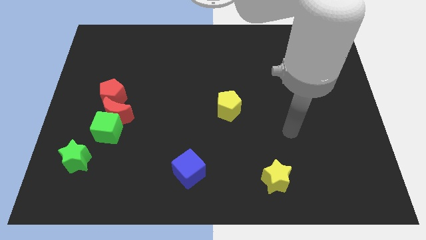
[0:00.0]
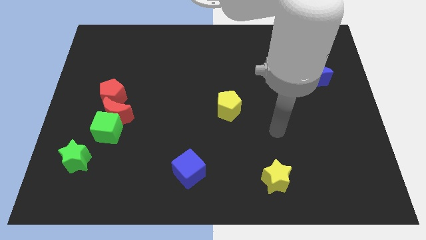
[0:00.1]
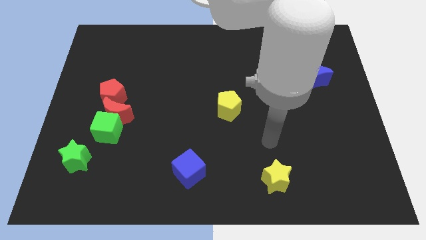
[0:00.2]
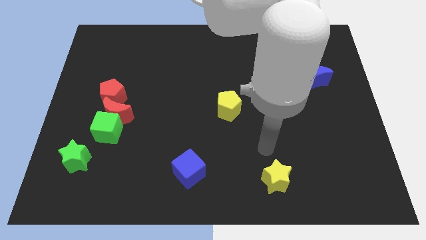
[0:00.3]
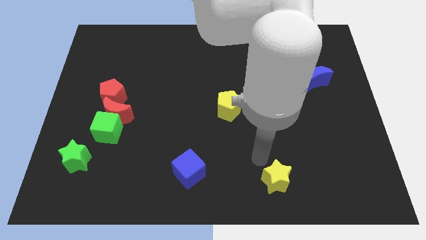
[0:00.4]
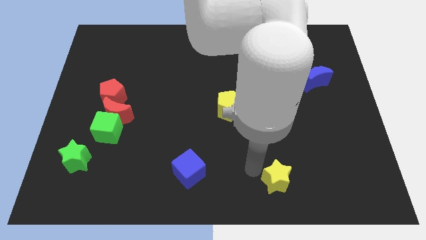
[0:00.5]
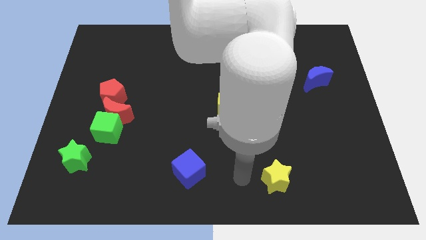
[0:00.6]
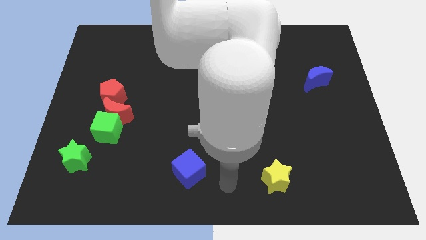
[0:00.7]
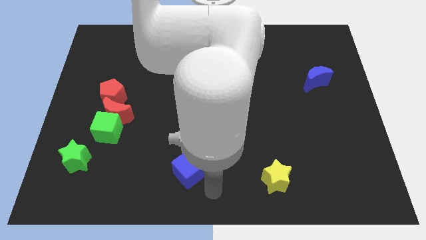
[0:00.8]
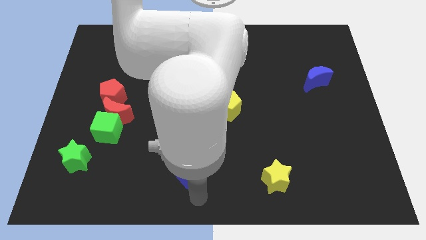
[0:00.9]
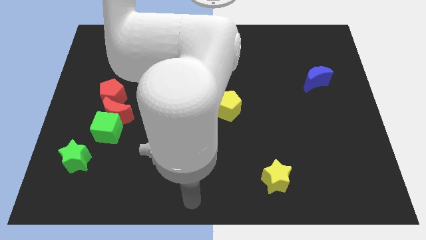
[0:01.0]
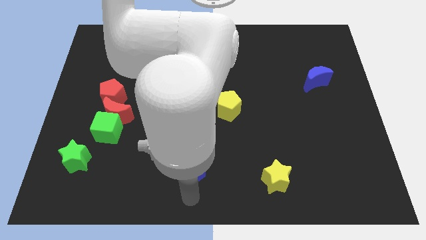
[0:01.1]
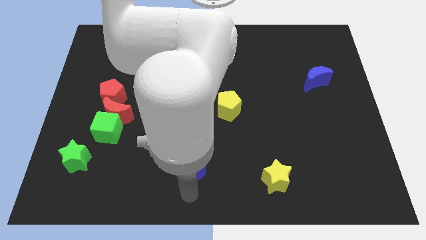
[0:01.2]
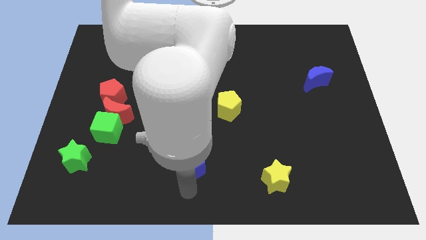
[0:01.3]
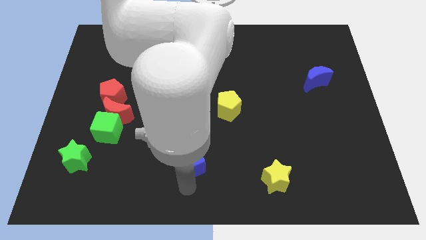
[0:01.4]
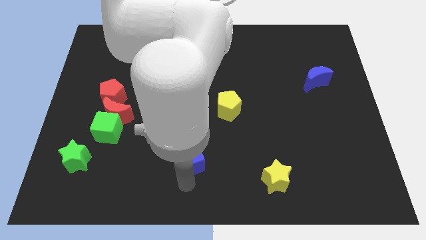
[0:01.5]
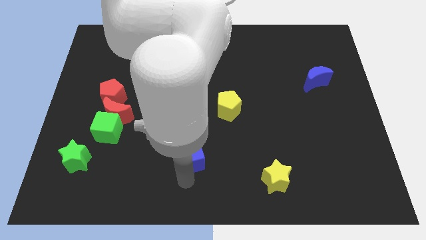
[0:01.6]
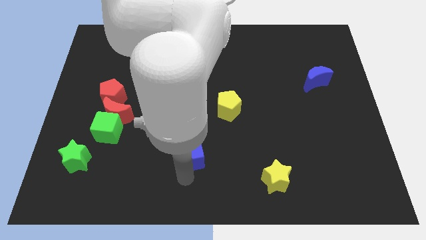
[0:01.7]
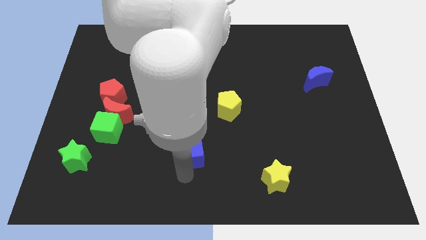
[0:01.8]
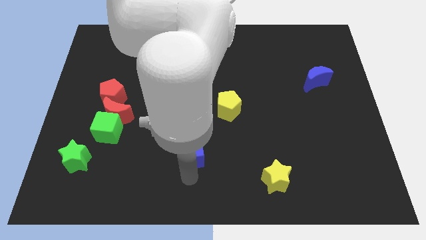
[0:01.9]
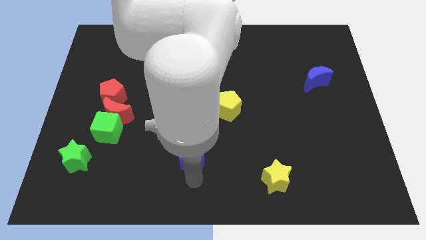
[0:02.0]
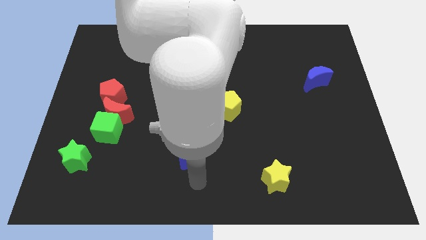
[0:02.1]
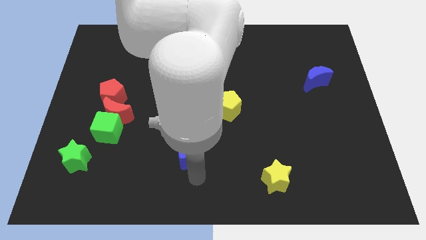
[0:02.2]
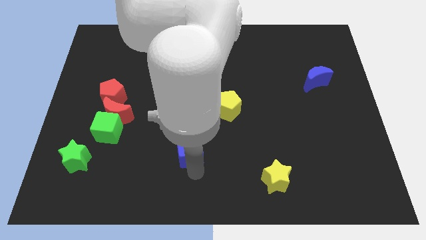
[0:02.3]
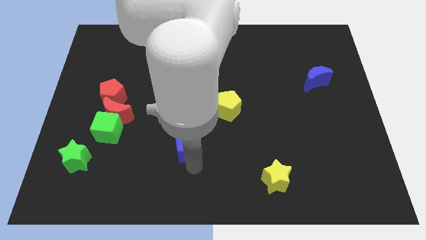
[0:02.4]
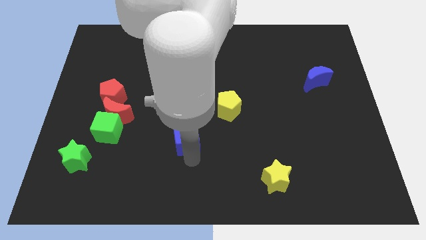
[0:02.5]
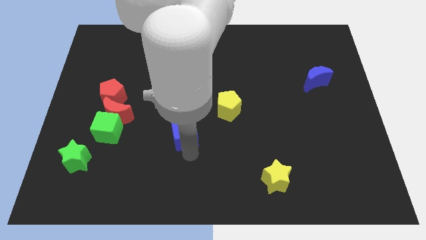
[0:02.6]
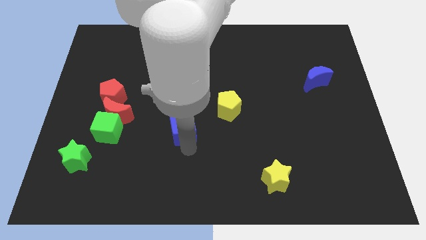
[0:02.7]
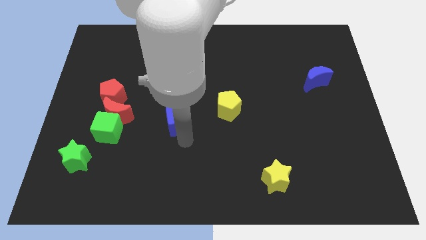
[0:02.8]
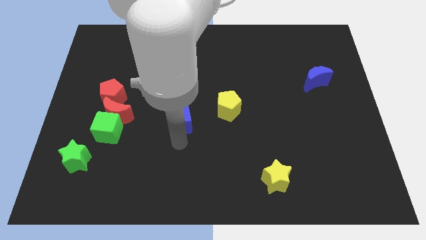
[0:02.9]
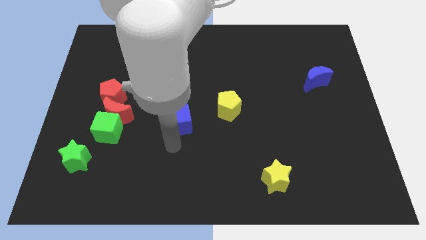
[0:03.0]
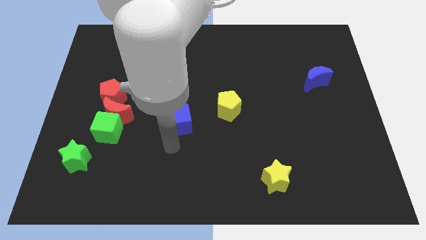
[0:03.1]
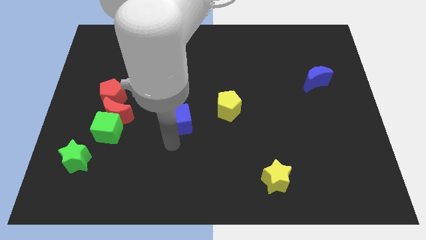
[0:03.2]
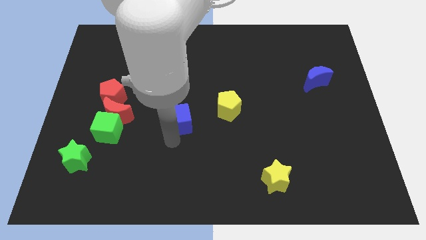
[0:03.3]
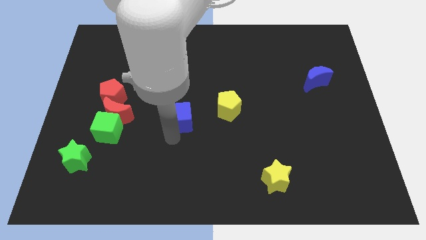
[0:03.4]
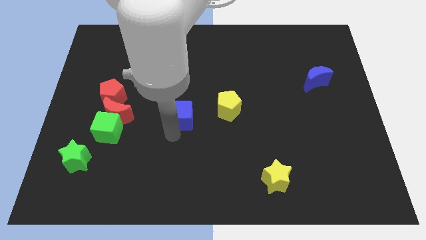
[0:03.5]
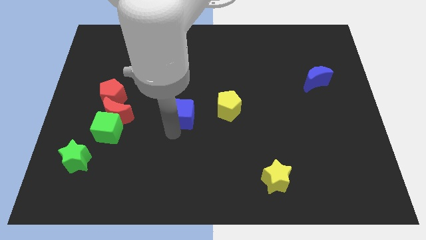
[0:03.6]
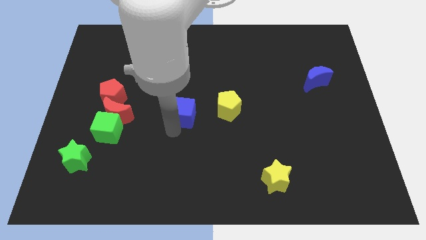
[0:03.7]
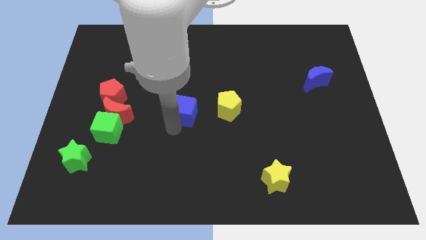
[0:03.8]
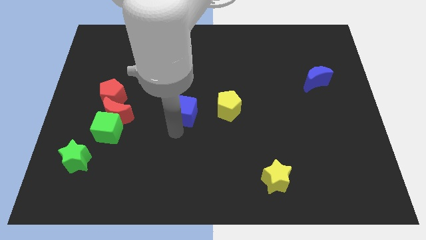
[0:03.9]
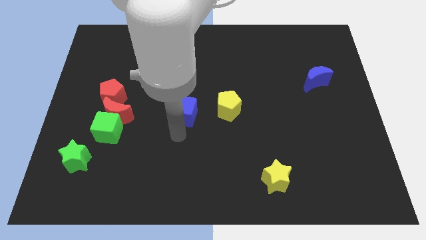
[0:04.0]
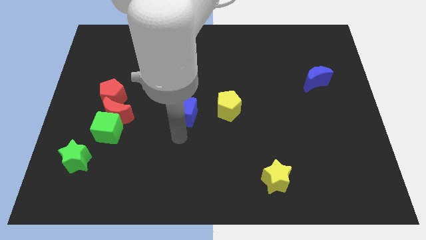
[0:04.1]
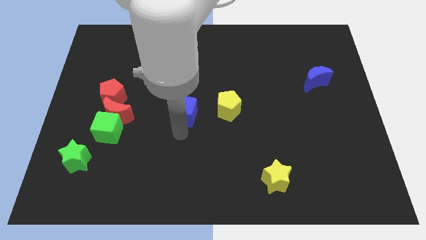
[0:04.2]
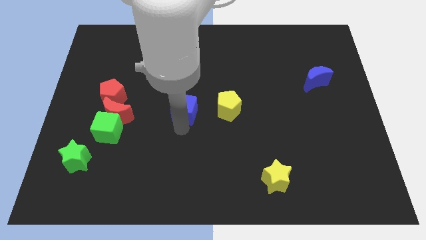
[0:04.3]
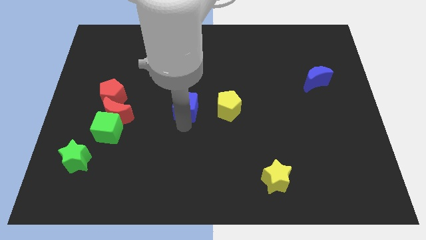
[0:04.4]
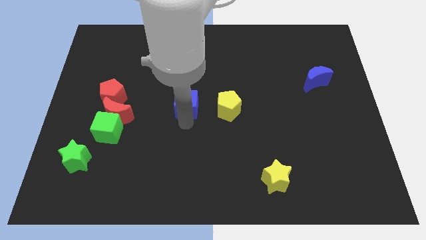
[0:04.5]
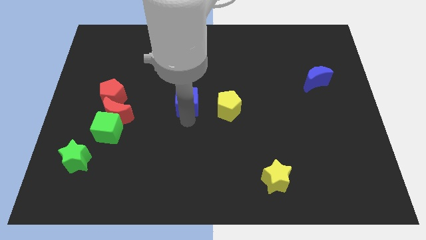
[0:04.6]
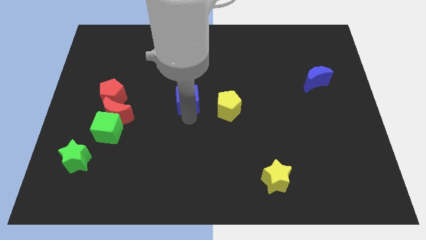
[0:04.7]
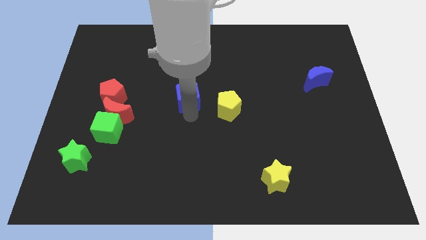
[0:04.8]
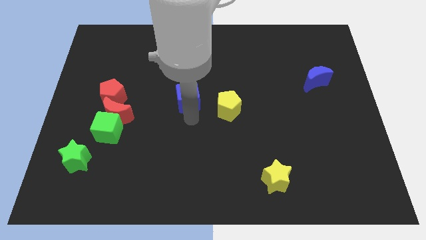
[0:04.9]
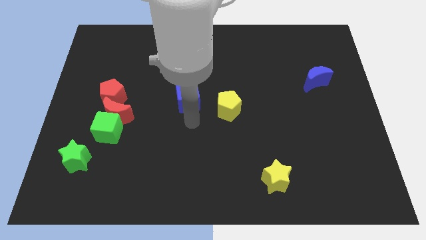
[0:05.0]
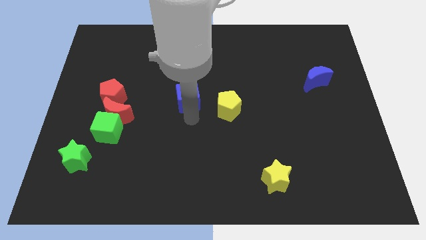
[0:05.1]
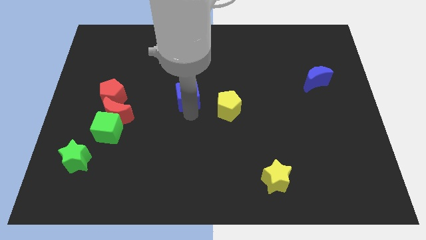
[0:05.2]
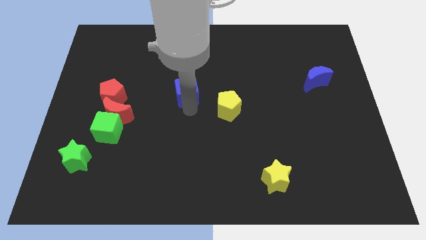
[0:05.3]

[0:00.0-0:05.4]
slide the blue cube upwards

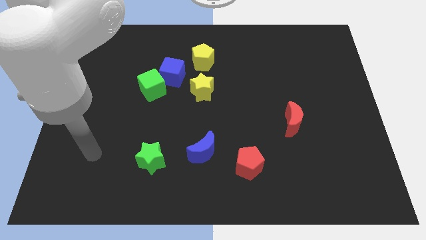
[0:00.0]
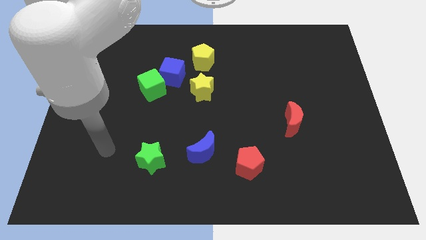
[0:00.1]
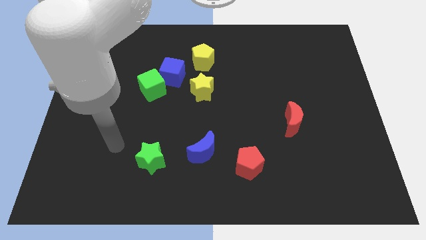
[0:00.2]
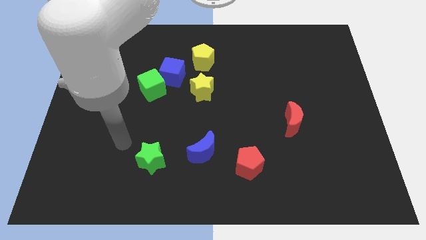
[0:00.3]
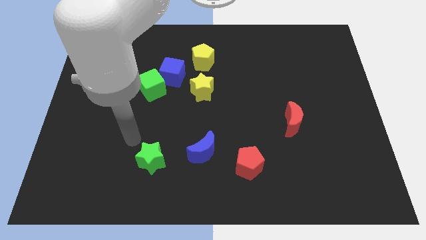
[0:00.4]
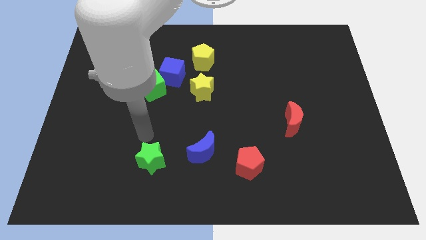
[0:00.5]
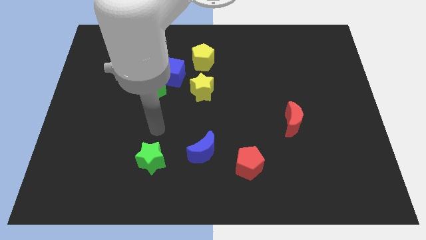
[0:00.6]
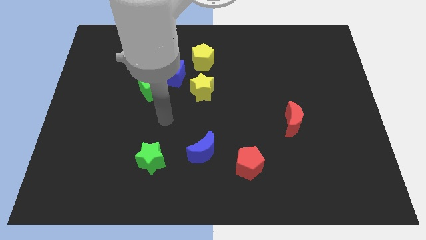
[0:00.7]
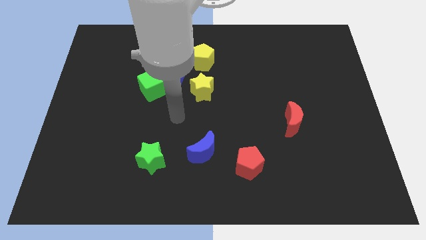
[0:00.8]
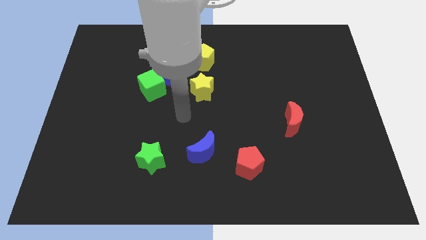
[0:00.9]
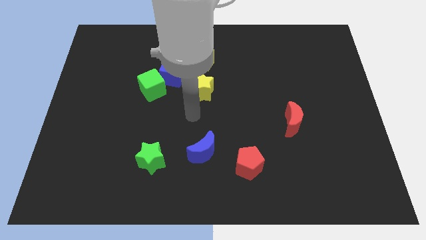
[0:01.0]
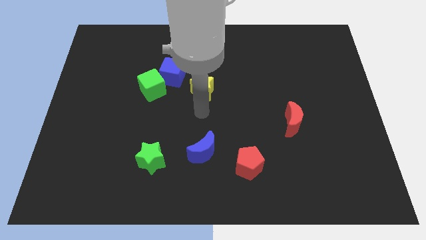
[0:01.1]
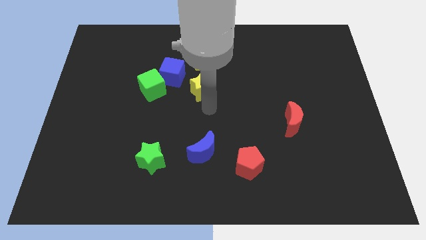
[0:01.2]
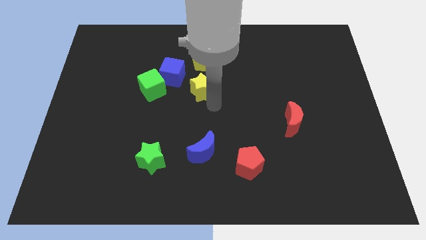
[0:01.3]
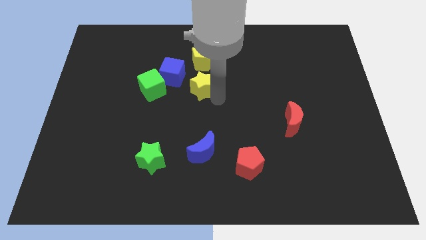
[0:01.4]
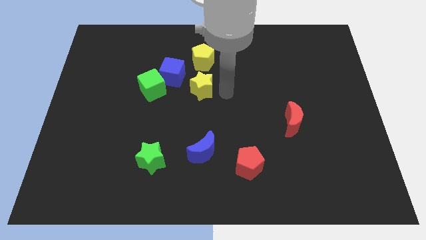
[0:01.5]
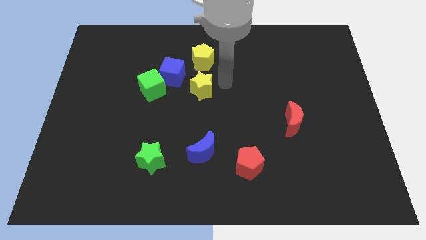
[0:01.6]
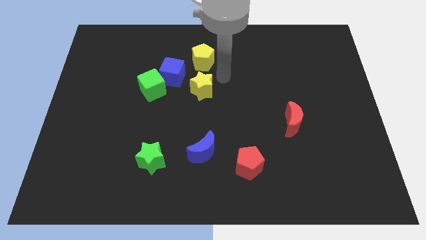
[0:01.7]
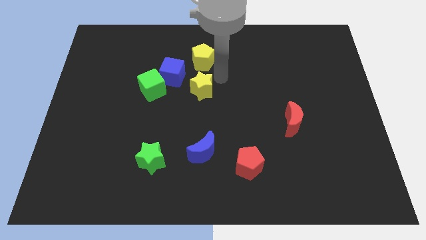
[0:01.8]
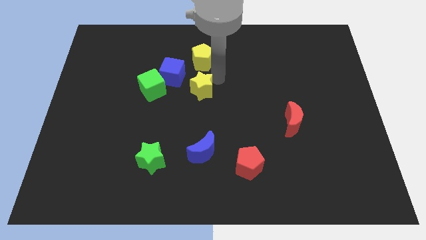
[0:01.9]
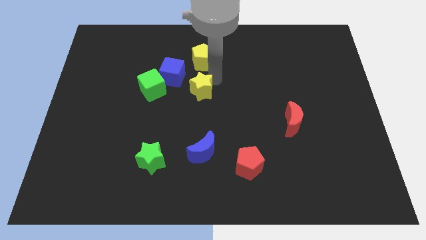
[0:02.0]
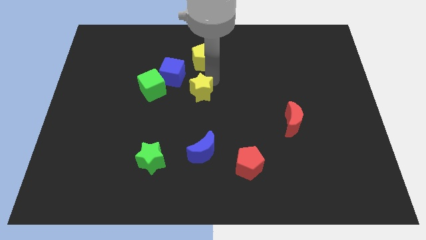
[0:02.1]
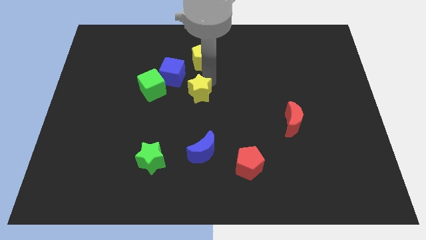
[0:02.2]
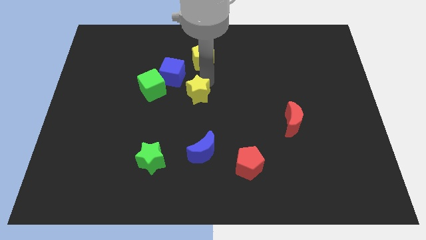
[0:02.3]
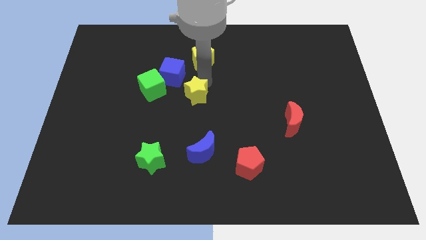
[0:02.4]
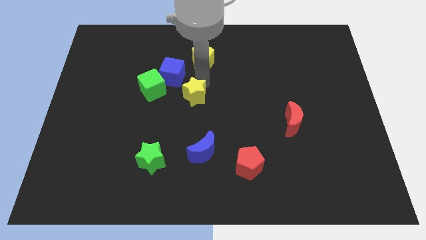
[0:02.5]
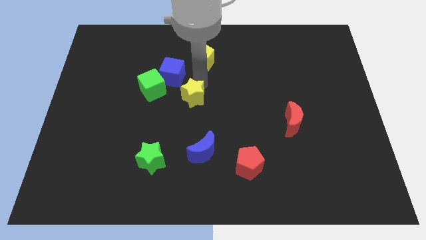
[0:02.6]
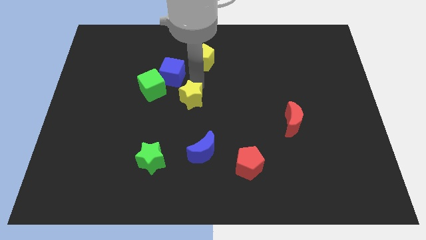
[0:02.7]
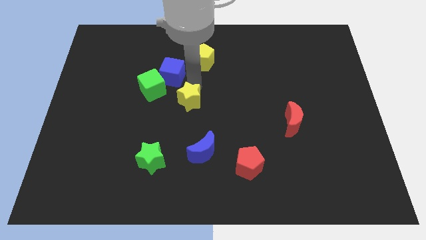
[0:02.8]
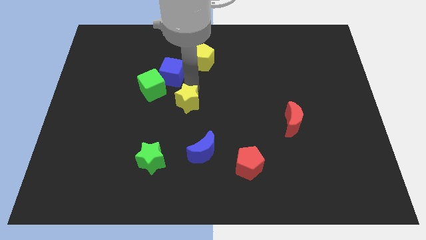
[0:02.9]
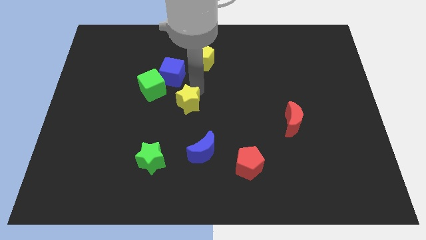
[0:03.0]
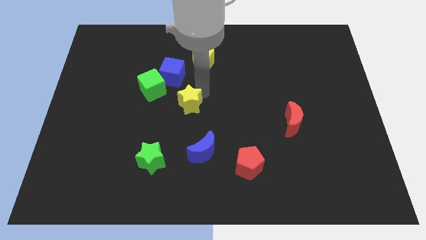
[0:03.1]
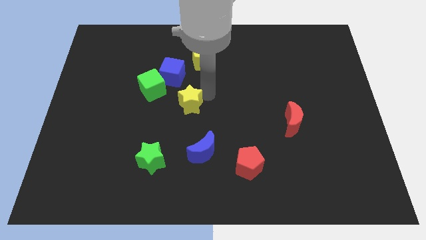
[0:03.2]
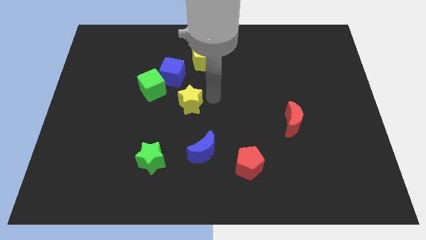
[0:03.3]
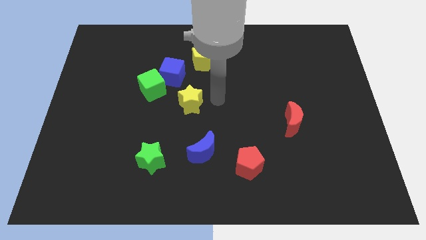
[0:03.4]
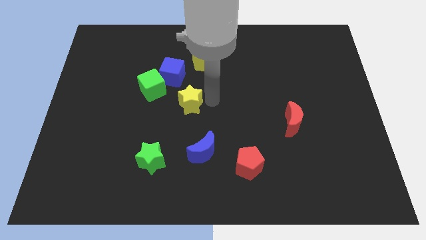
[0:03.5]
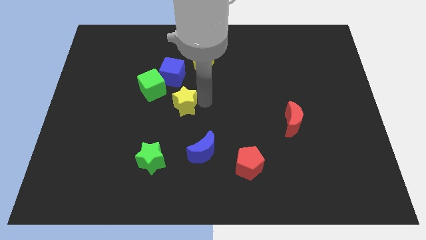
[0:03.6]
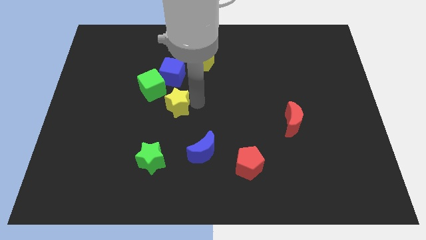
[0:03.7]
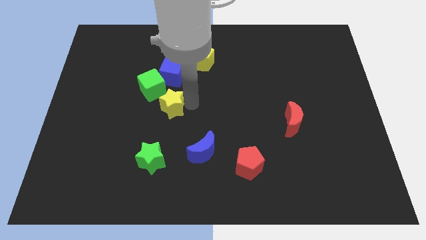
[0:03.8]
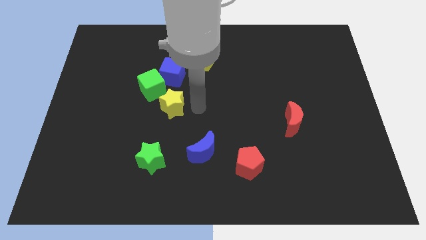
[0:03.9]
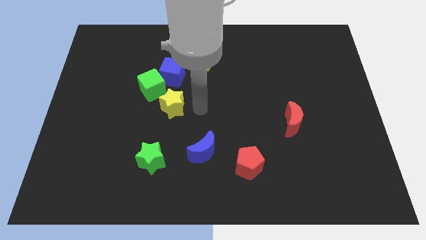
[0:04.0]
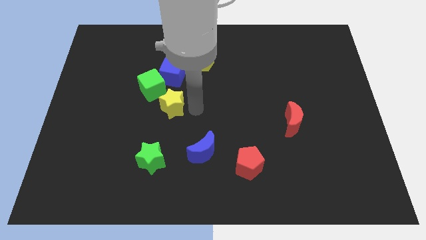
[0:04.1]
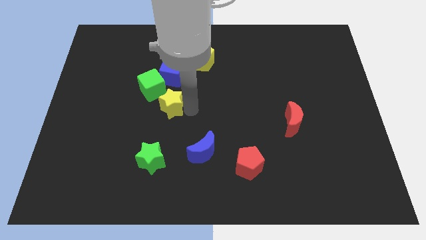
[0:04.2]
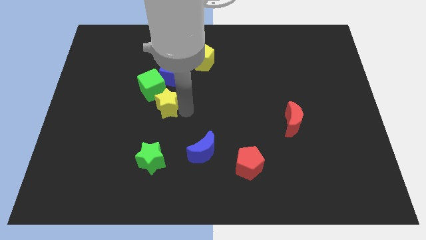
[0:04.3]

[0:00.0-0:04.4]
slightly slide the yellow star to the left
